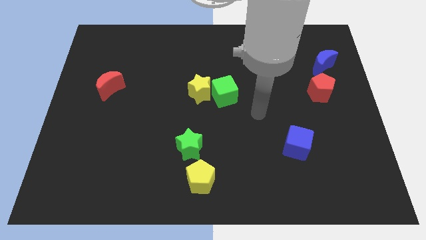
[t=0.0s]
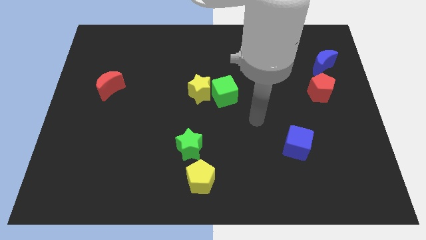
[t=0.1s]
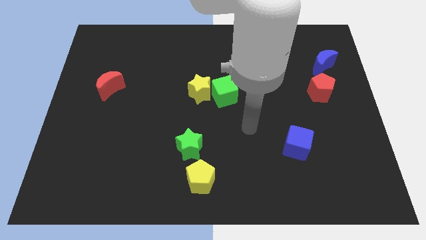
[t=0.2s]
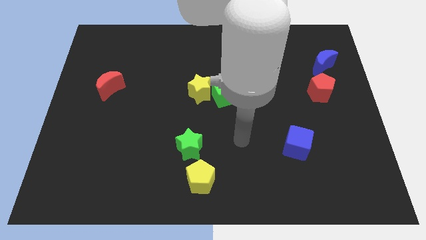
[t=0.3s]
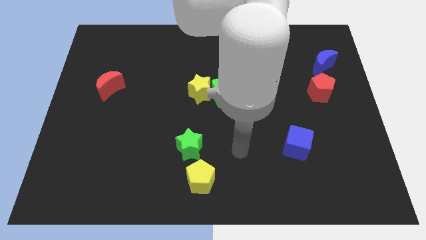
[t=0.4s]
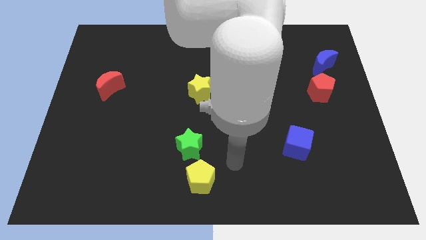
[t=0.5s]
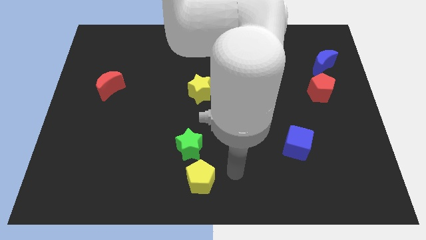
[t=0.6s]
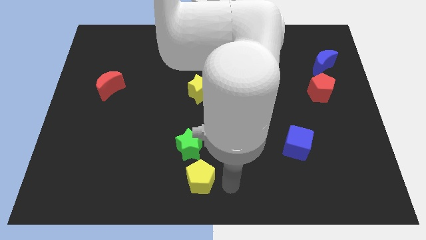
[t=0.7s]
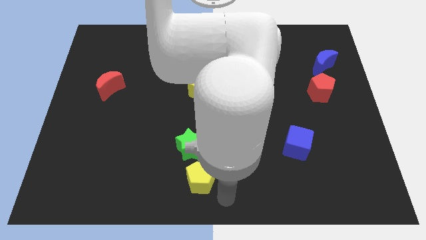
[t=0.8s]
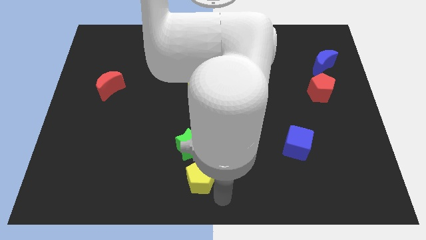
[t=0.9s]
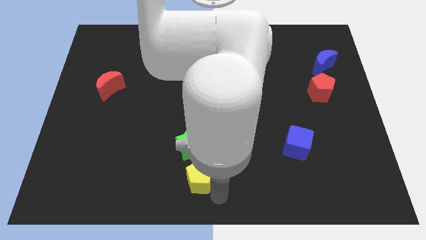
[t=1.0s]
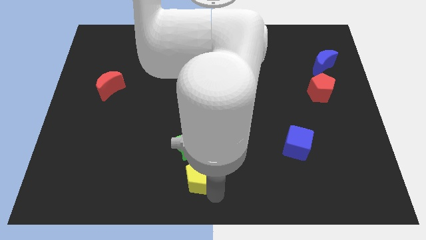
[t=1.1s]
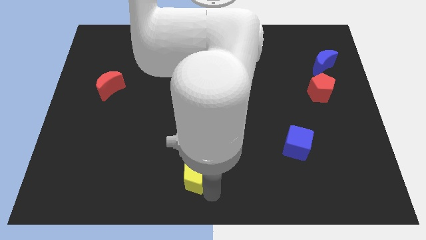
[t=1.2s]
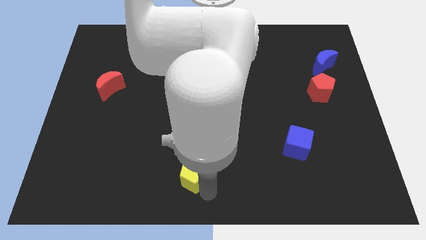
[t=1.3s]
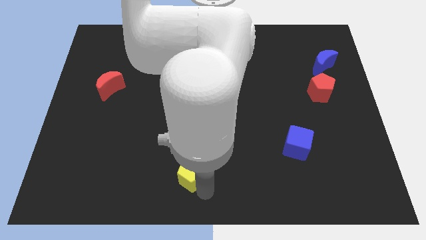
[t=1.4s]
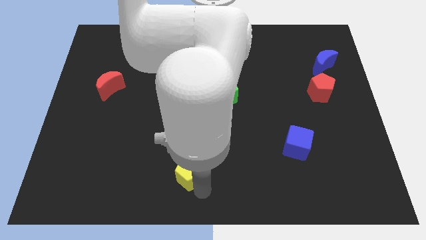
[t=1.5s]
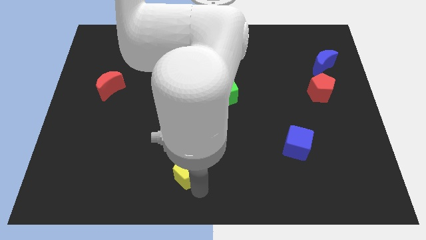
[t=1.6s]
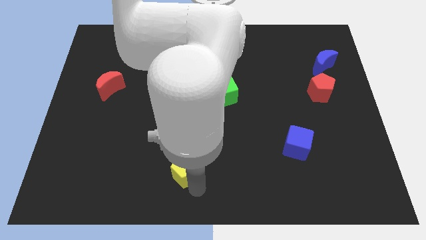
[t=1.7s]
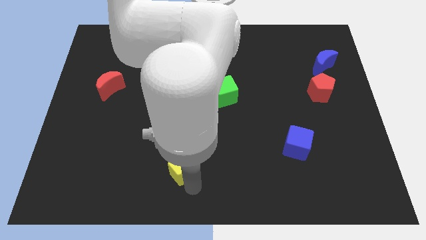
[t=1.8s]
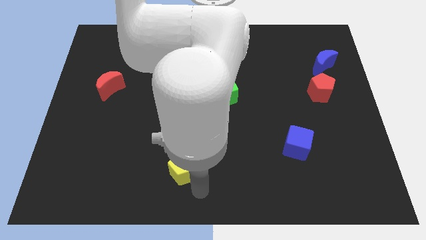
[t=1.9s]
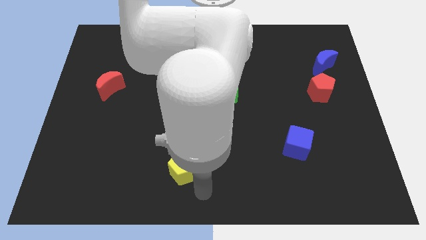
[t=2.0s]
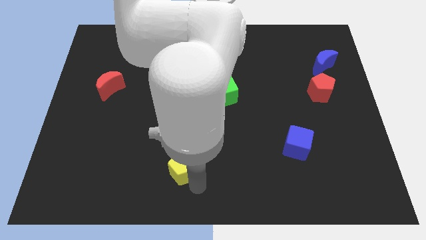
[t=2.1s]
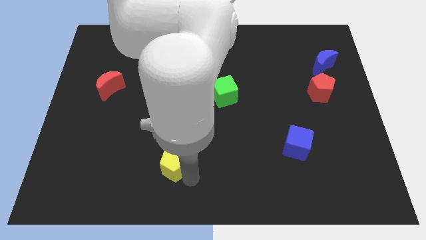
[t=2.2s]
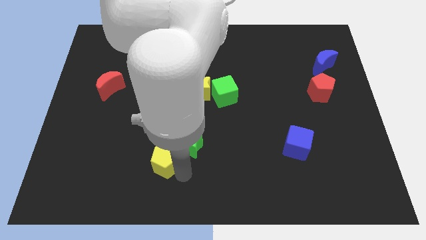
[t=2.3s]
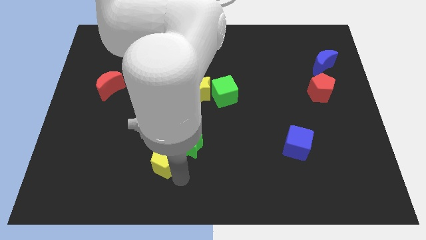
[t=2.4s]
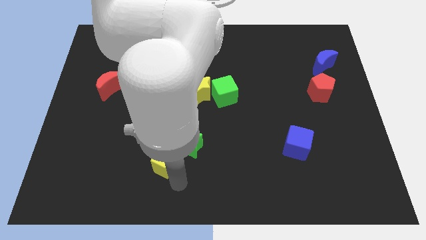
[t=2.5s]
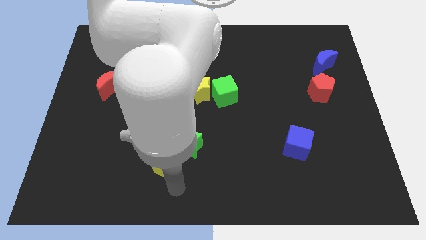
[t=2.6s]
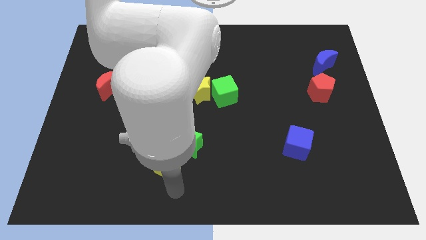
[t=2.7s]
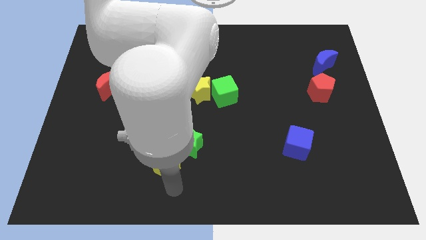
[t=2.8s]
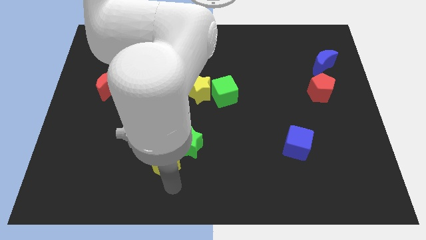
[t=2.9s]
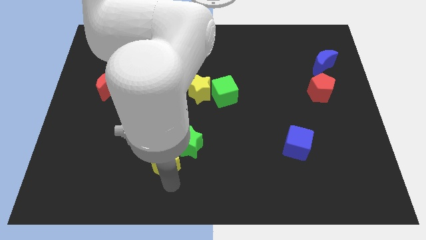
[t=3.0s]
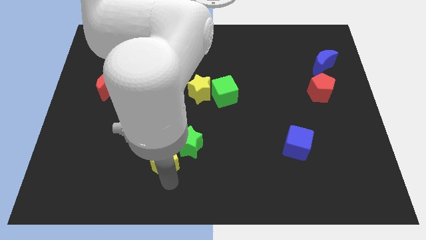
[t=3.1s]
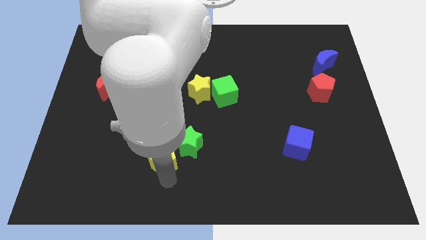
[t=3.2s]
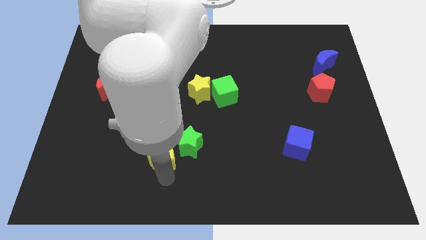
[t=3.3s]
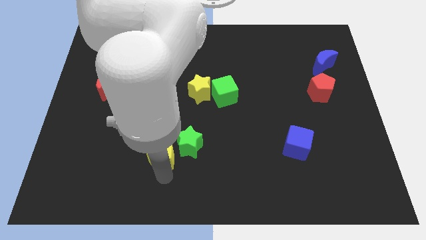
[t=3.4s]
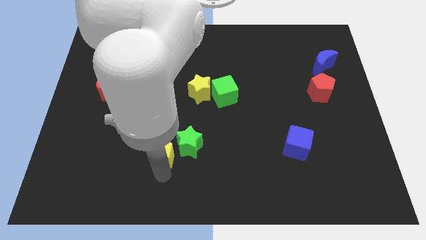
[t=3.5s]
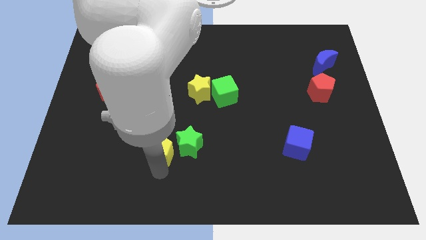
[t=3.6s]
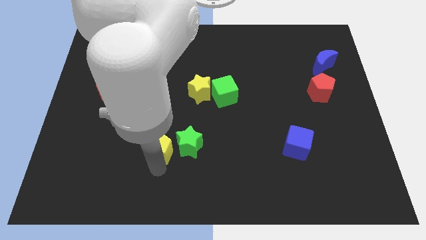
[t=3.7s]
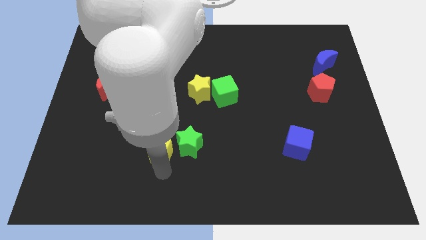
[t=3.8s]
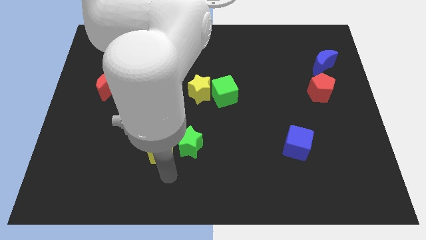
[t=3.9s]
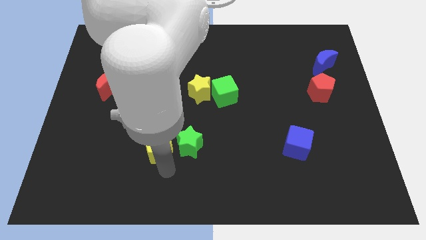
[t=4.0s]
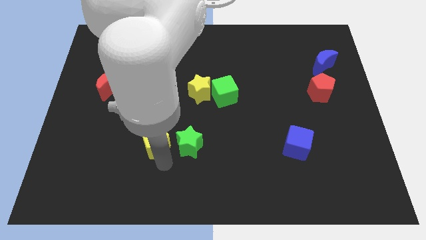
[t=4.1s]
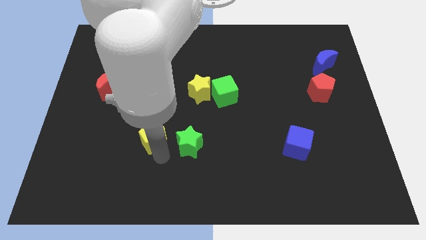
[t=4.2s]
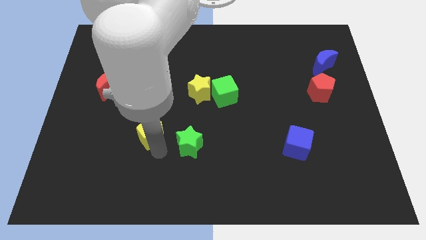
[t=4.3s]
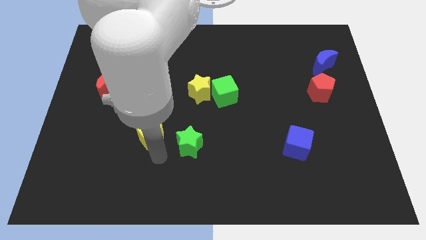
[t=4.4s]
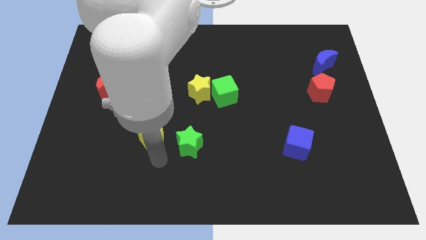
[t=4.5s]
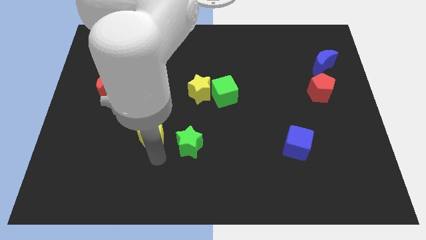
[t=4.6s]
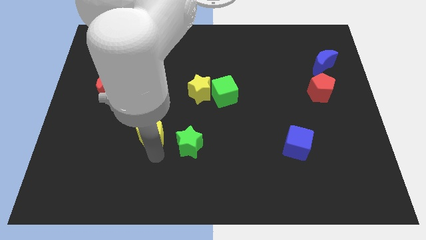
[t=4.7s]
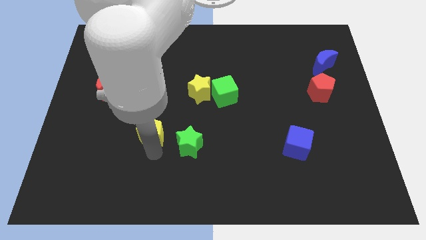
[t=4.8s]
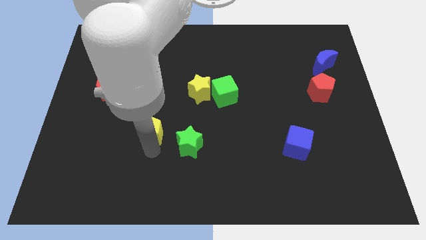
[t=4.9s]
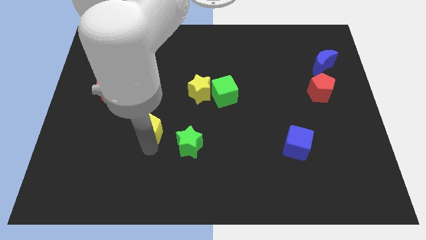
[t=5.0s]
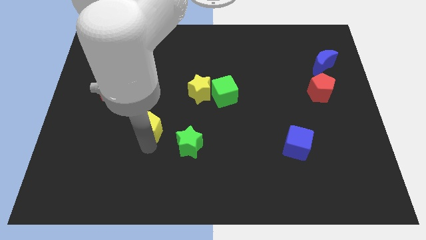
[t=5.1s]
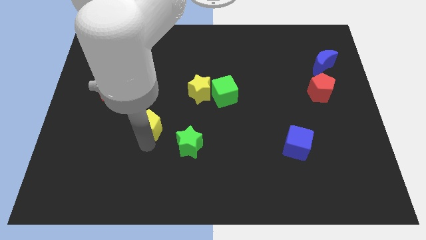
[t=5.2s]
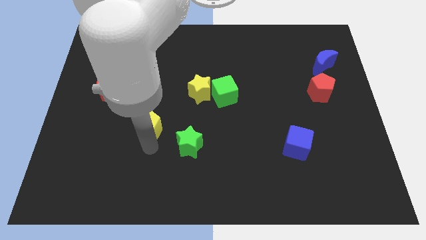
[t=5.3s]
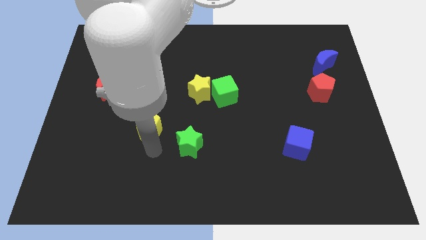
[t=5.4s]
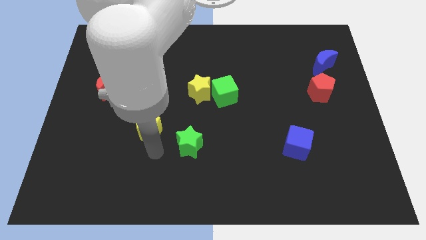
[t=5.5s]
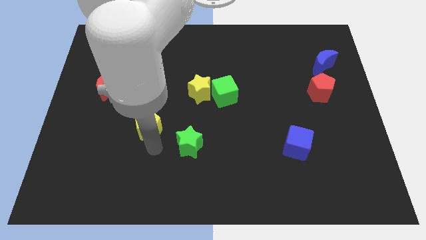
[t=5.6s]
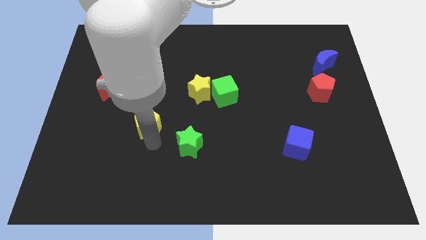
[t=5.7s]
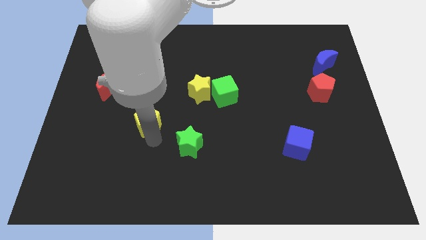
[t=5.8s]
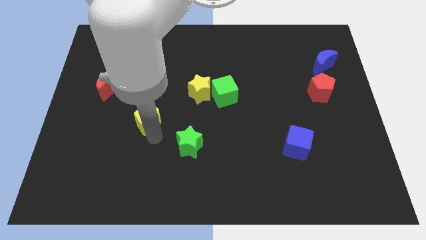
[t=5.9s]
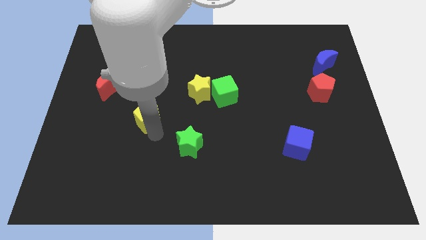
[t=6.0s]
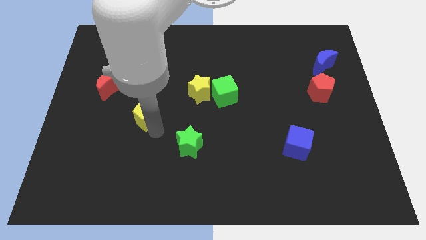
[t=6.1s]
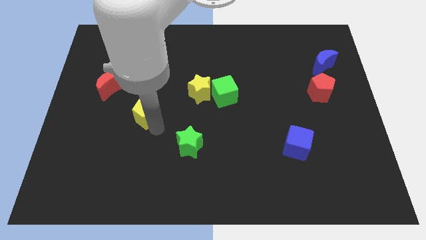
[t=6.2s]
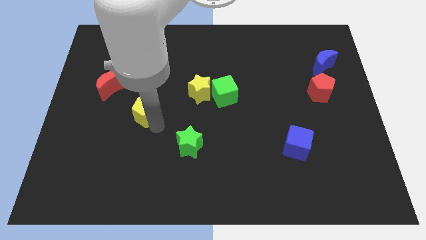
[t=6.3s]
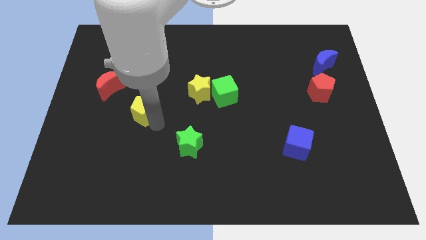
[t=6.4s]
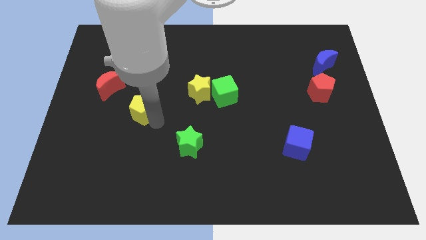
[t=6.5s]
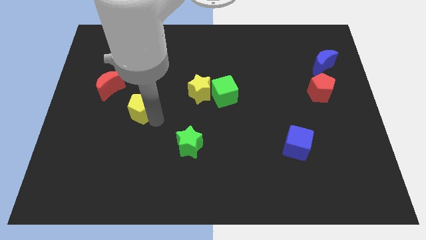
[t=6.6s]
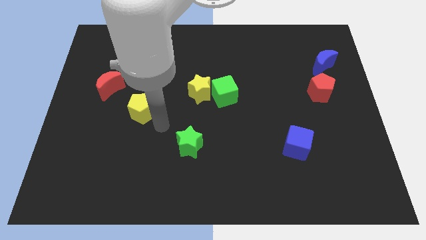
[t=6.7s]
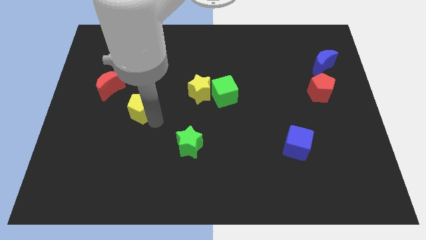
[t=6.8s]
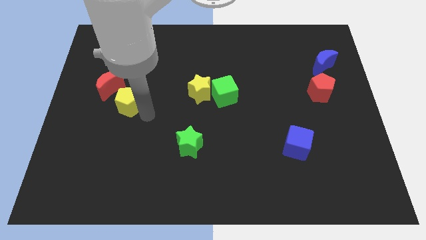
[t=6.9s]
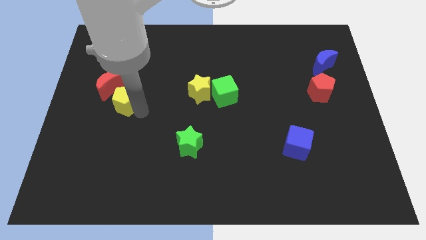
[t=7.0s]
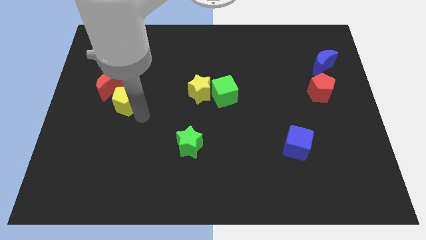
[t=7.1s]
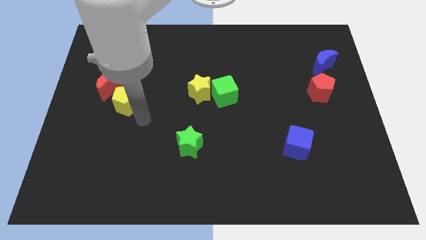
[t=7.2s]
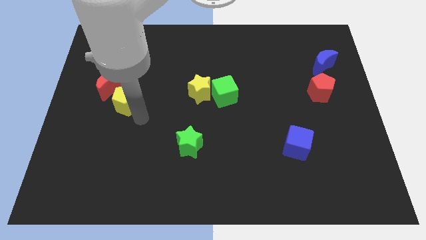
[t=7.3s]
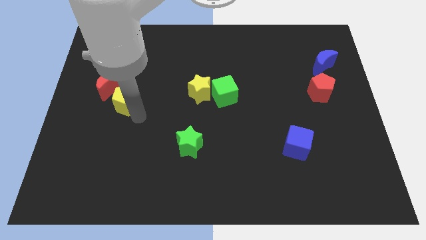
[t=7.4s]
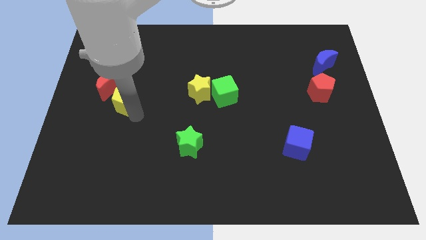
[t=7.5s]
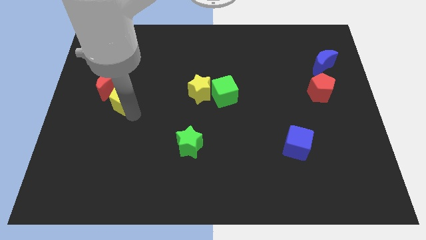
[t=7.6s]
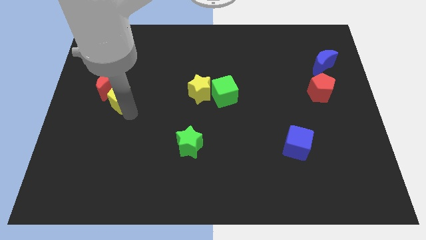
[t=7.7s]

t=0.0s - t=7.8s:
put the yellow pentagon to the red moon
